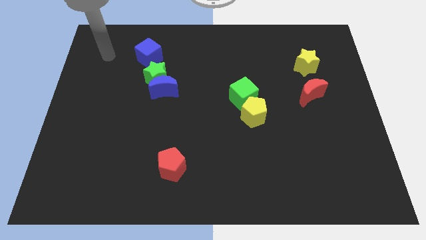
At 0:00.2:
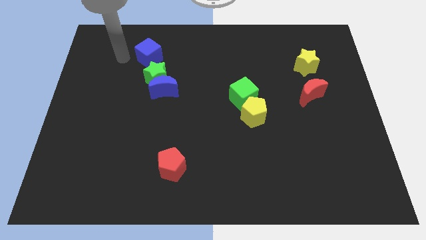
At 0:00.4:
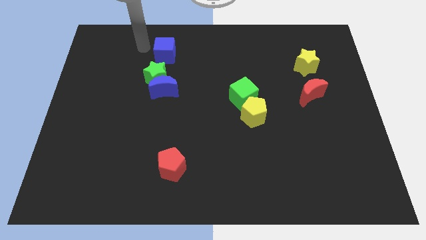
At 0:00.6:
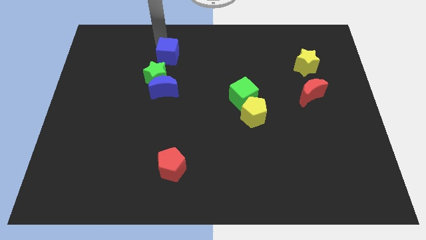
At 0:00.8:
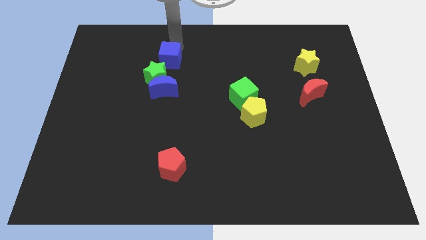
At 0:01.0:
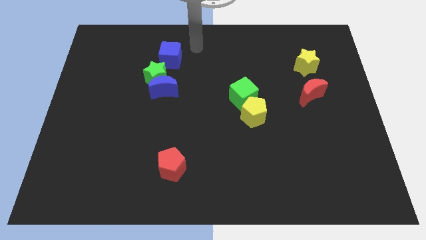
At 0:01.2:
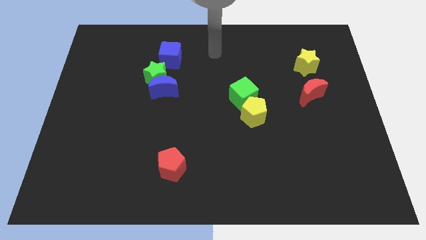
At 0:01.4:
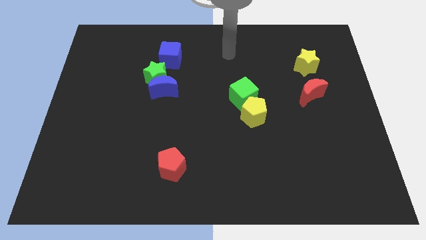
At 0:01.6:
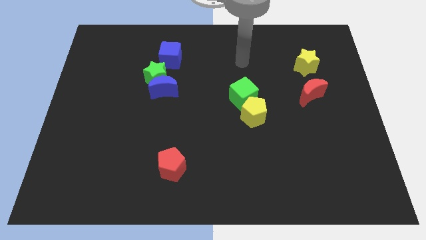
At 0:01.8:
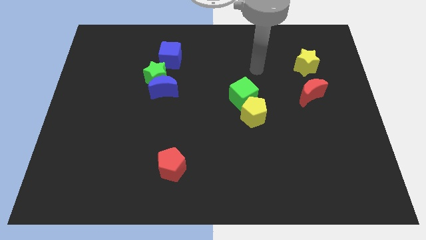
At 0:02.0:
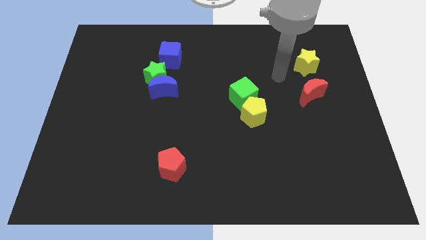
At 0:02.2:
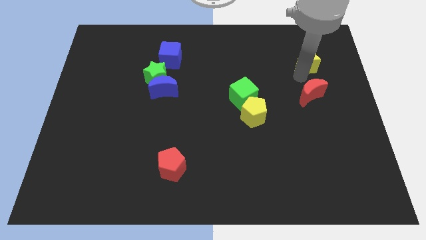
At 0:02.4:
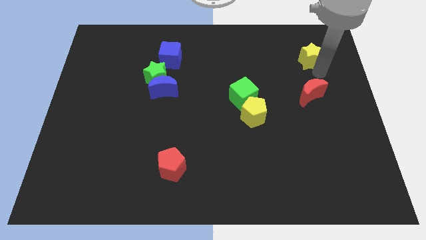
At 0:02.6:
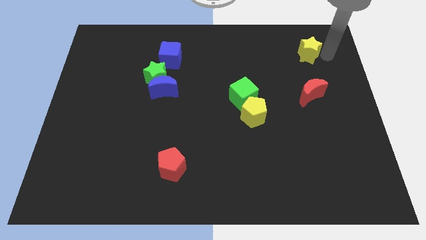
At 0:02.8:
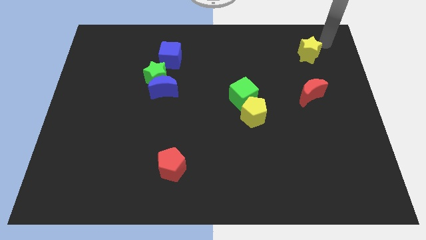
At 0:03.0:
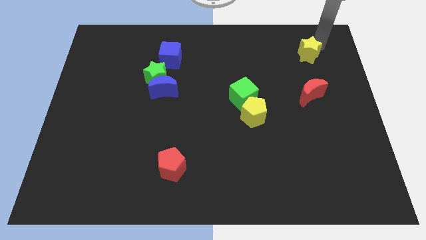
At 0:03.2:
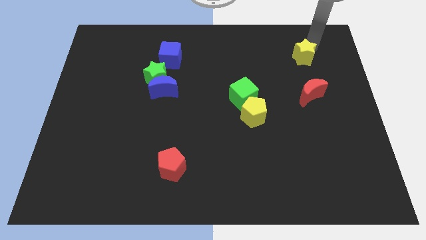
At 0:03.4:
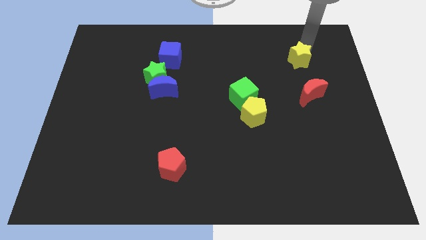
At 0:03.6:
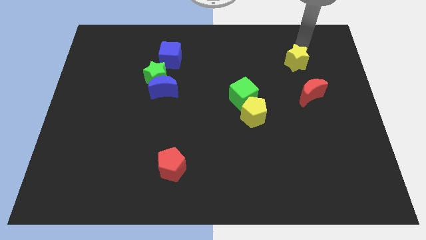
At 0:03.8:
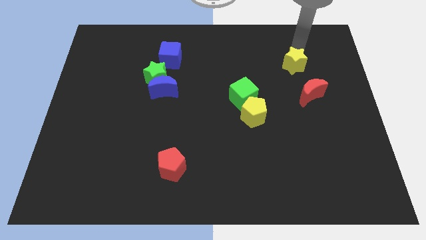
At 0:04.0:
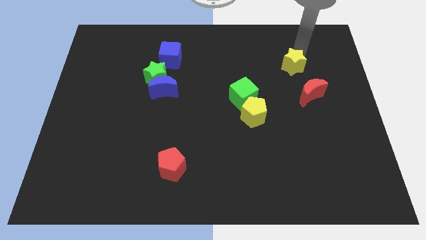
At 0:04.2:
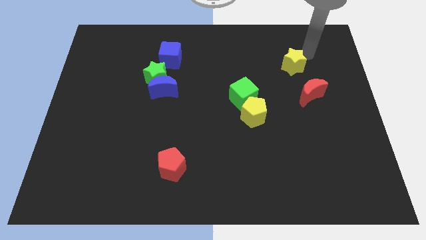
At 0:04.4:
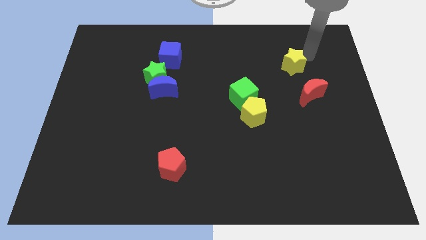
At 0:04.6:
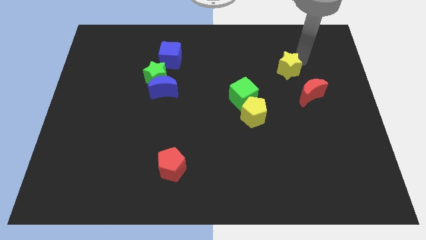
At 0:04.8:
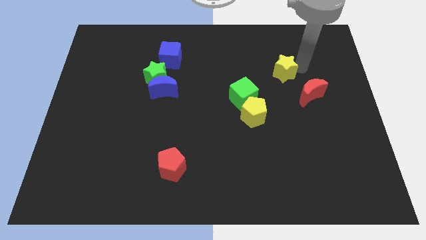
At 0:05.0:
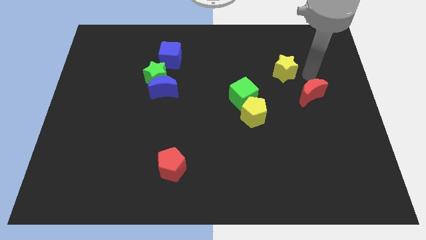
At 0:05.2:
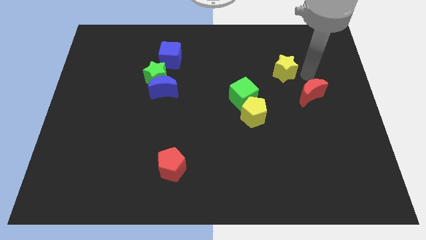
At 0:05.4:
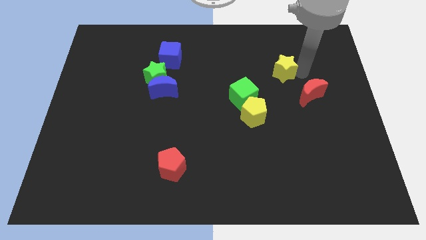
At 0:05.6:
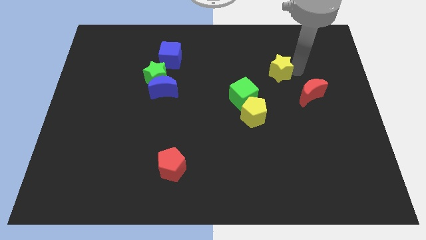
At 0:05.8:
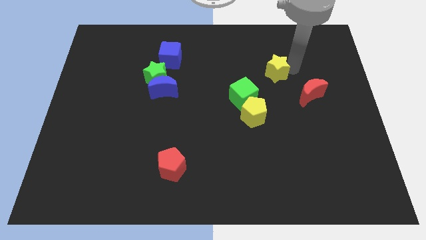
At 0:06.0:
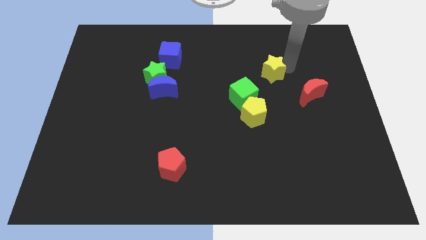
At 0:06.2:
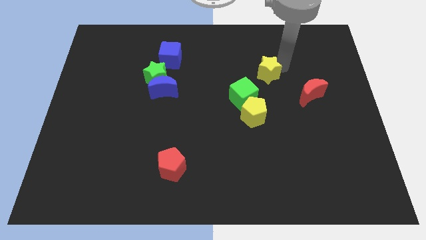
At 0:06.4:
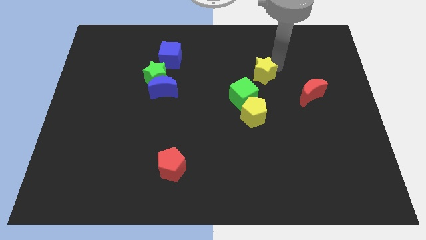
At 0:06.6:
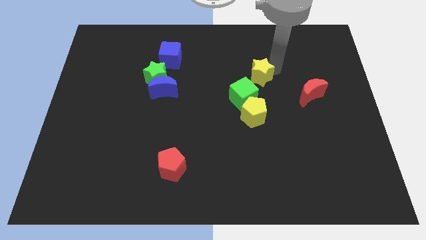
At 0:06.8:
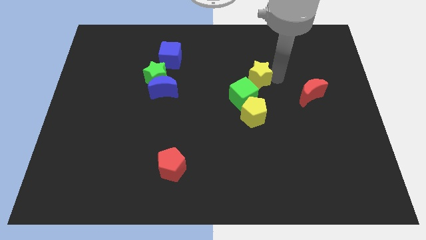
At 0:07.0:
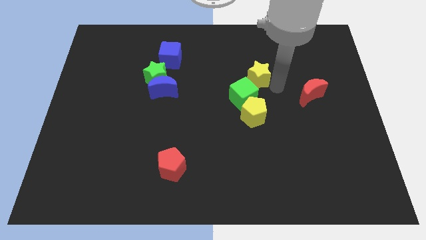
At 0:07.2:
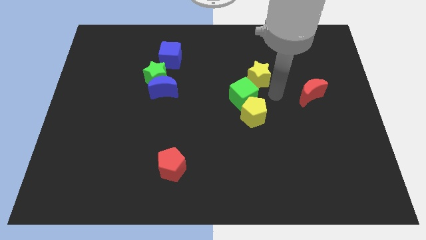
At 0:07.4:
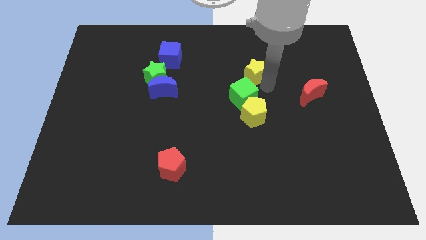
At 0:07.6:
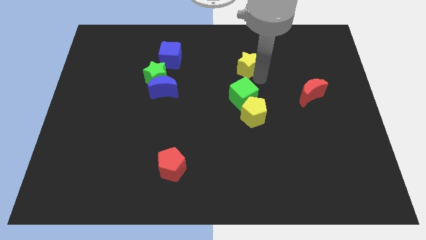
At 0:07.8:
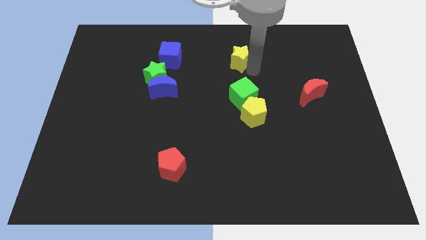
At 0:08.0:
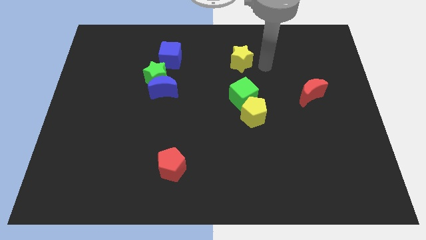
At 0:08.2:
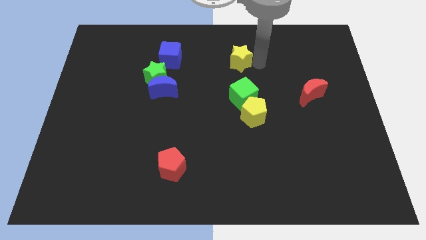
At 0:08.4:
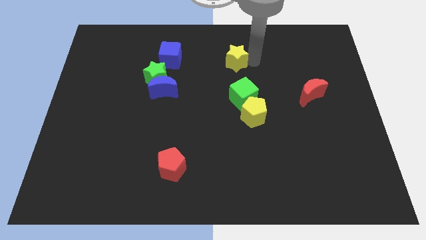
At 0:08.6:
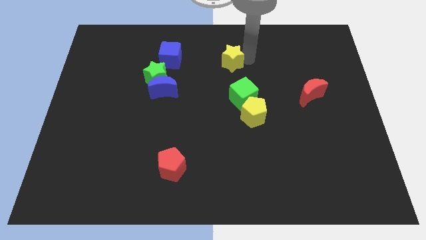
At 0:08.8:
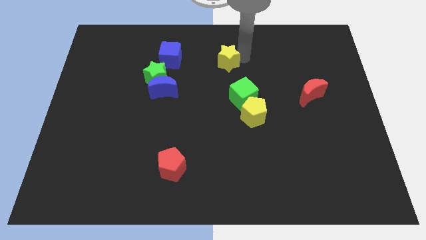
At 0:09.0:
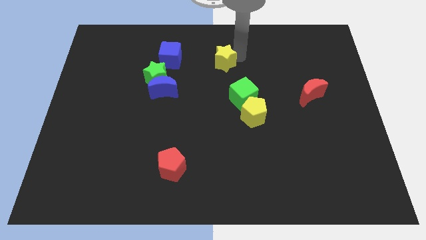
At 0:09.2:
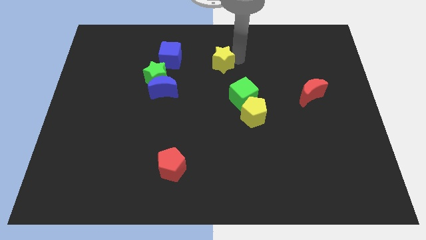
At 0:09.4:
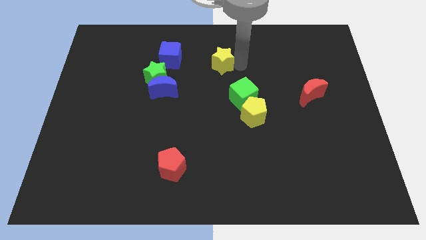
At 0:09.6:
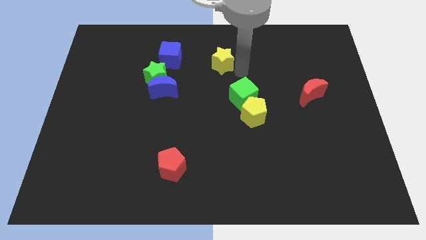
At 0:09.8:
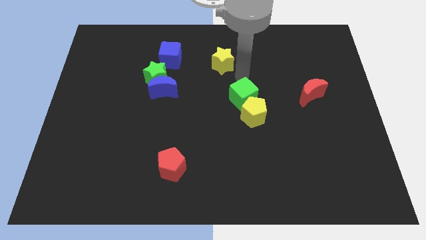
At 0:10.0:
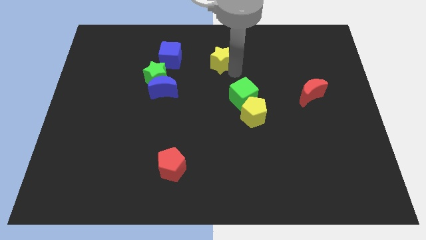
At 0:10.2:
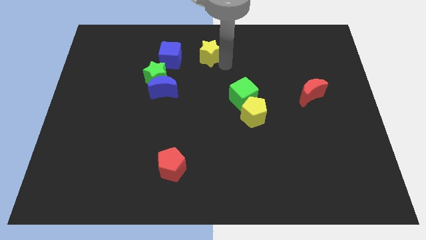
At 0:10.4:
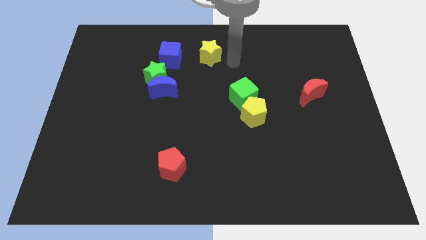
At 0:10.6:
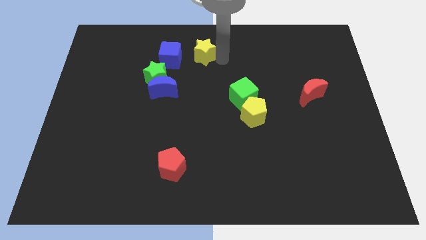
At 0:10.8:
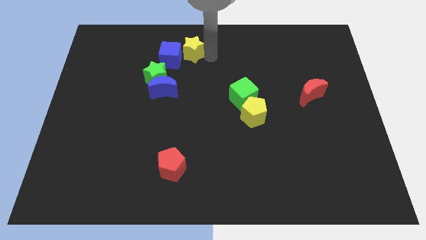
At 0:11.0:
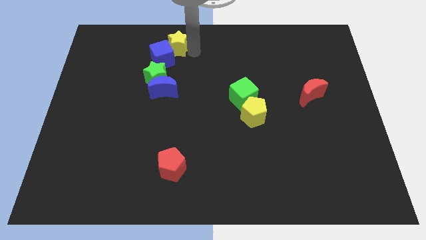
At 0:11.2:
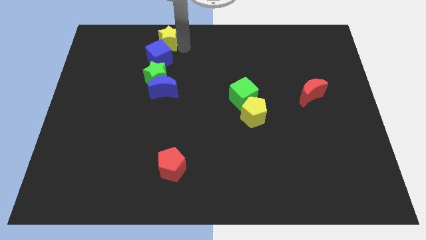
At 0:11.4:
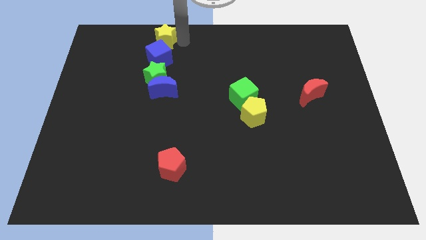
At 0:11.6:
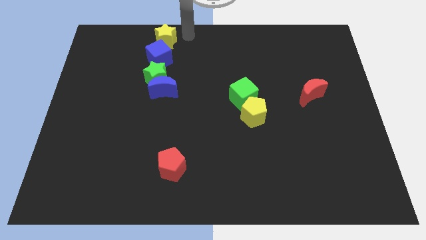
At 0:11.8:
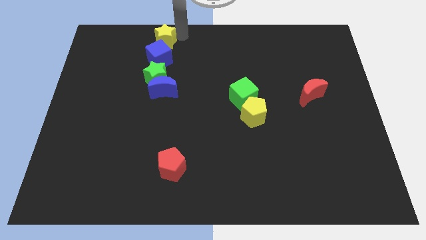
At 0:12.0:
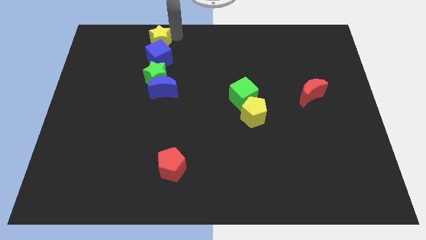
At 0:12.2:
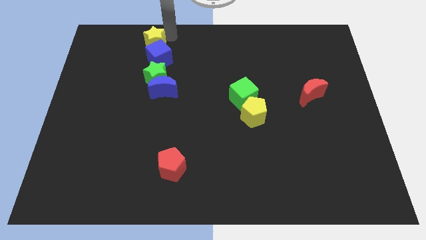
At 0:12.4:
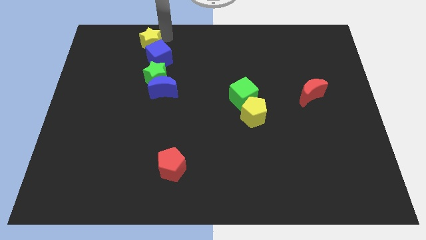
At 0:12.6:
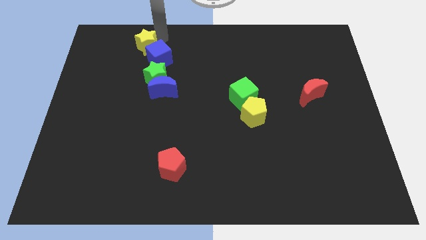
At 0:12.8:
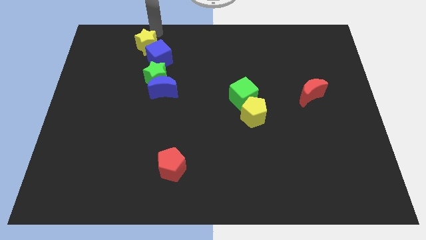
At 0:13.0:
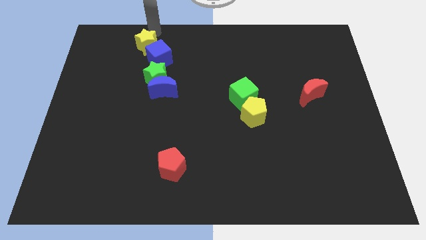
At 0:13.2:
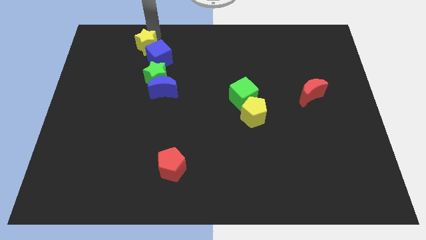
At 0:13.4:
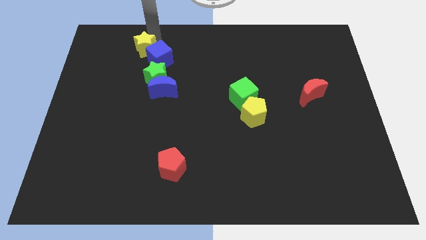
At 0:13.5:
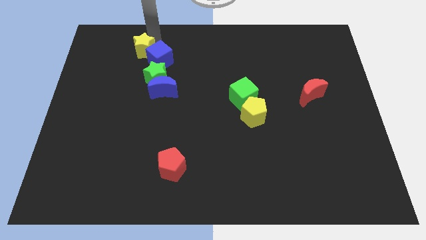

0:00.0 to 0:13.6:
push the yellow star diagonally up and to the left of the green star
